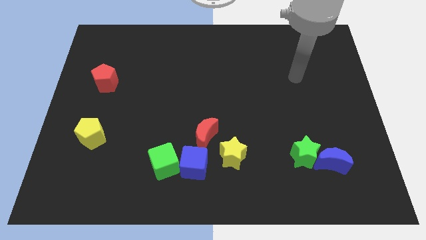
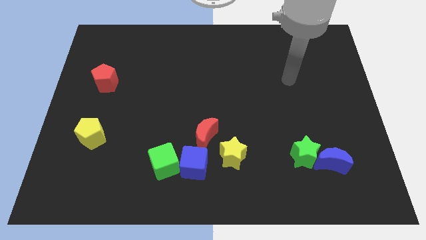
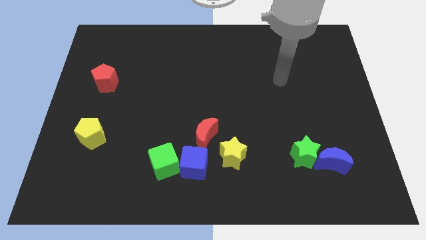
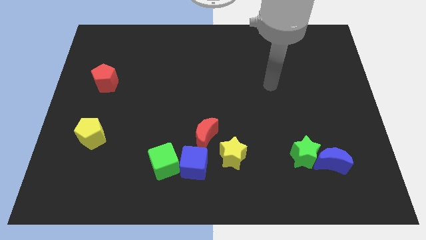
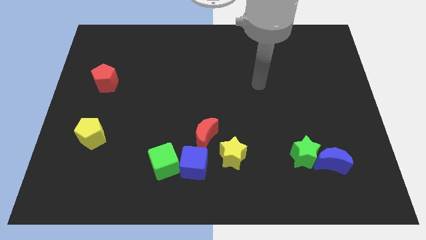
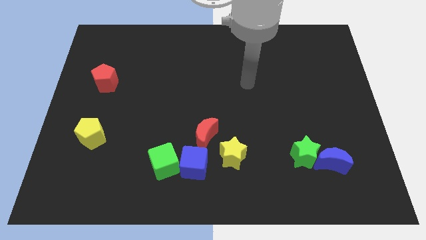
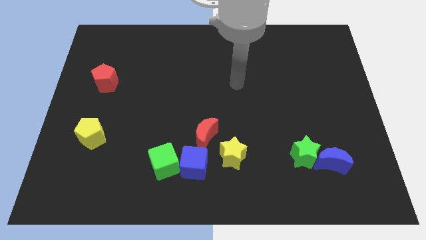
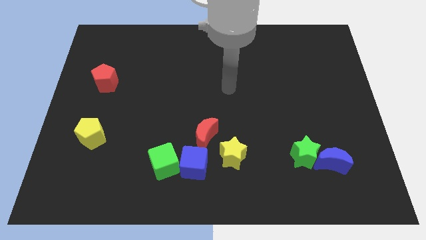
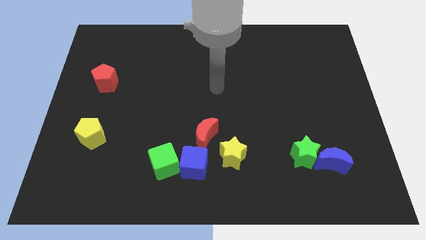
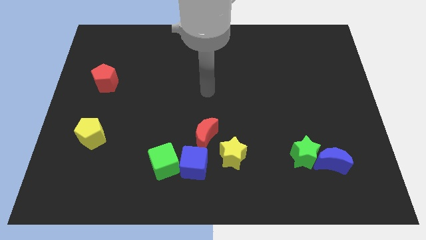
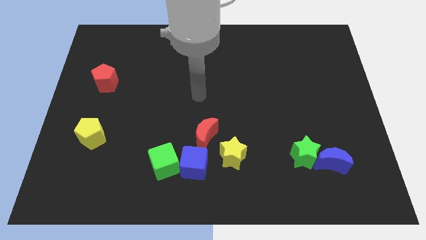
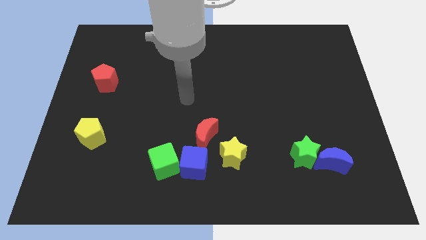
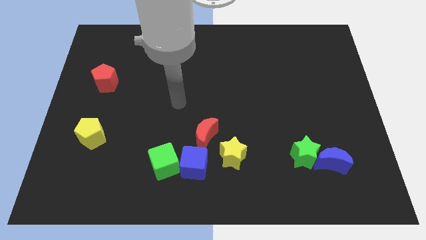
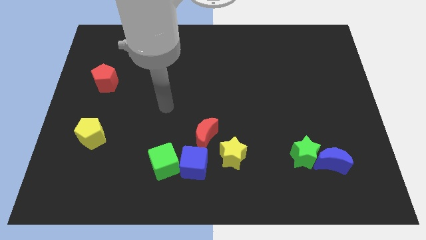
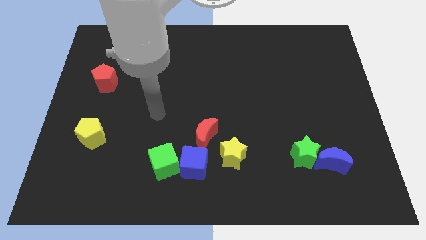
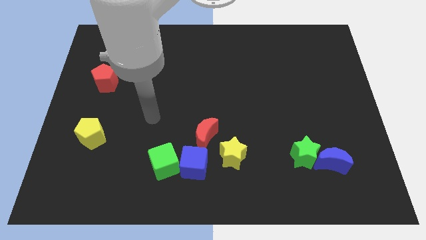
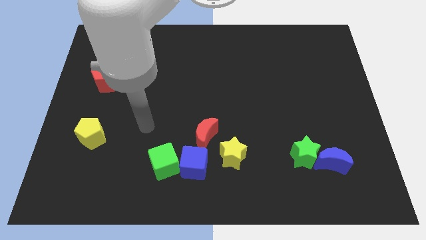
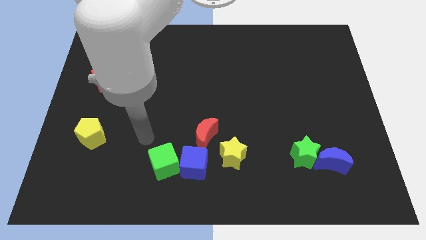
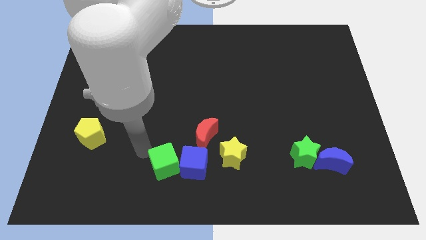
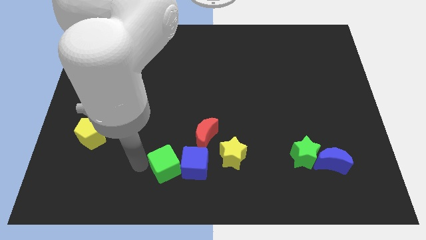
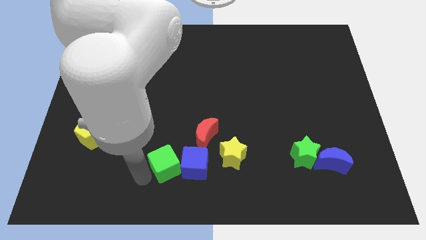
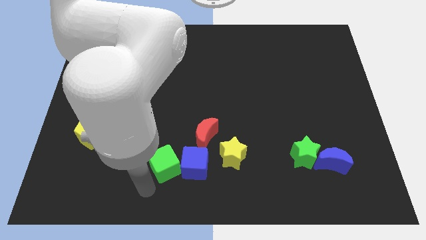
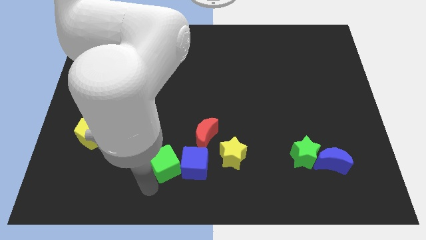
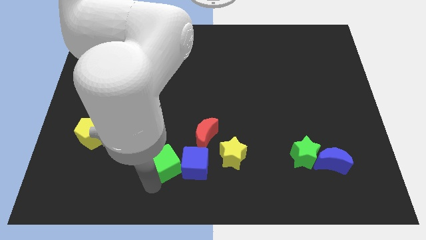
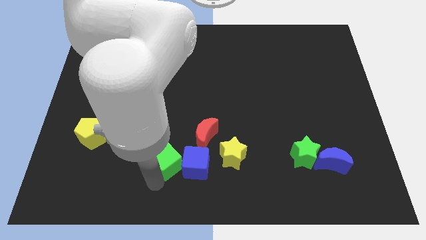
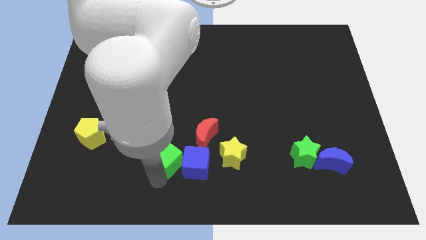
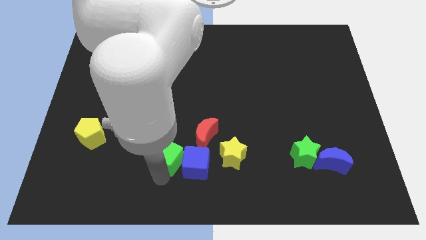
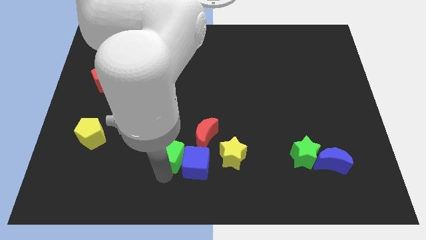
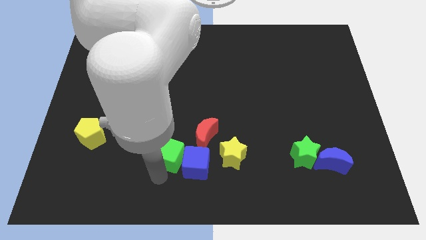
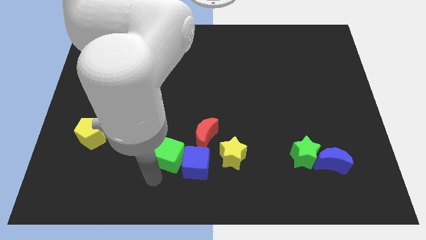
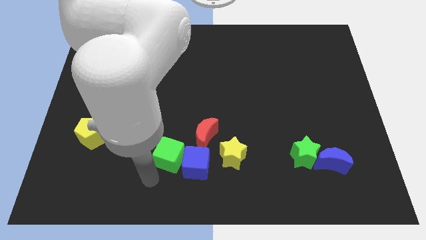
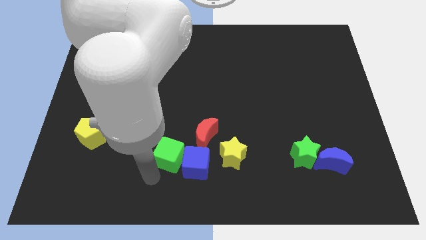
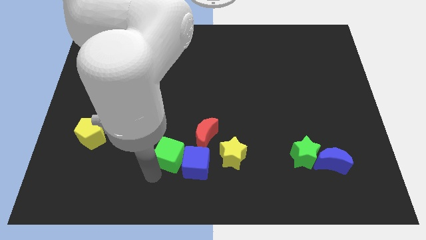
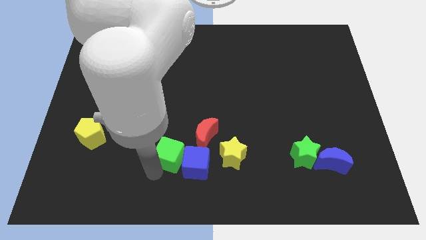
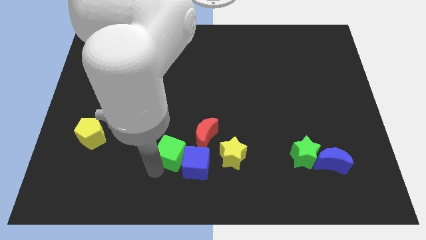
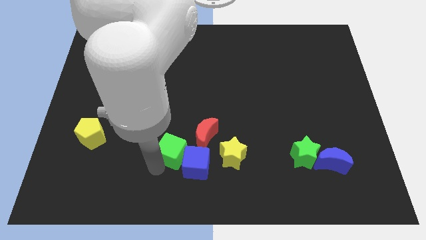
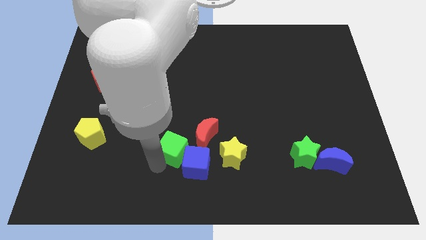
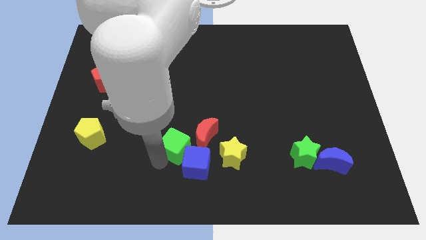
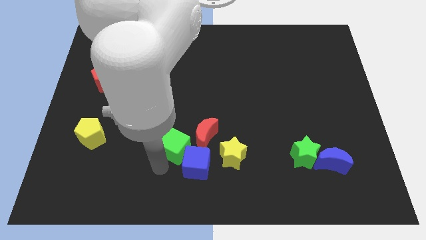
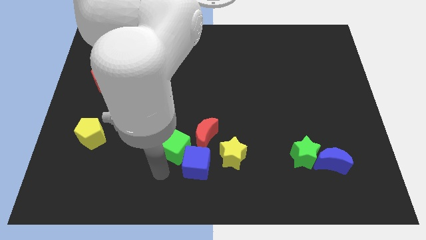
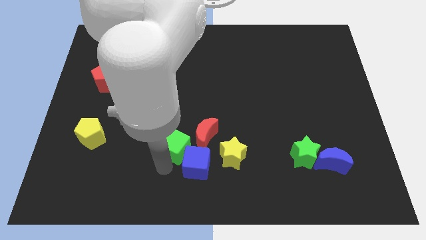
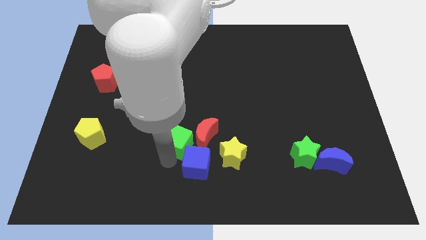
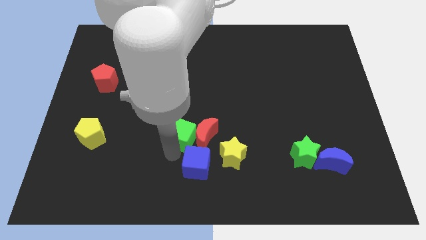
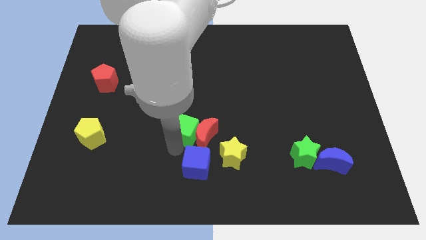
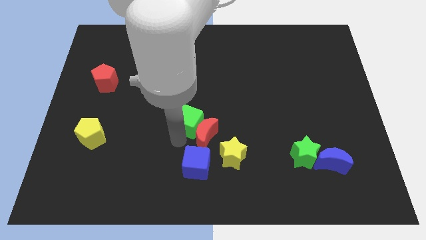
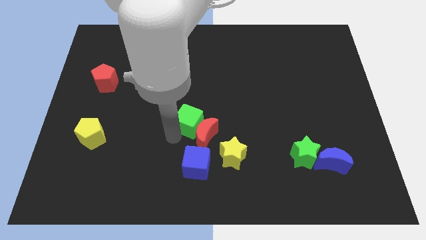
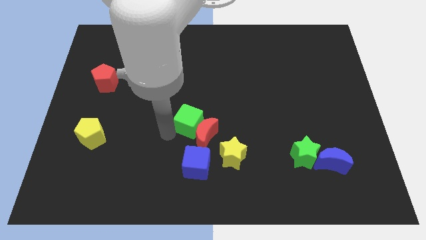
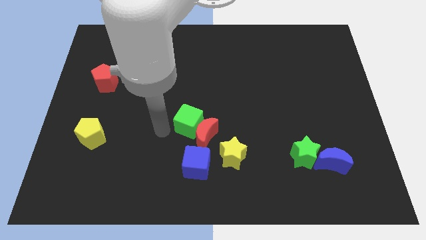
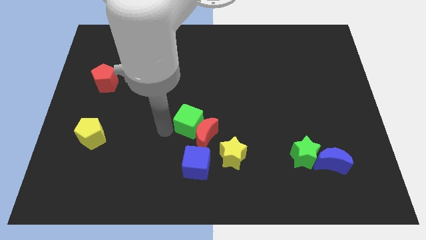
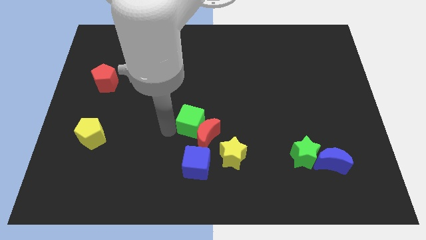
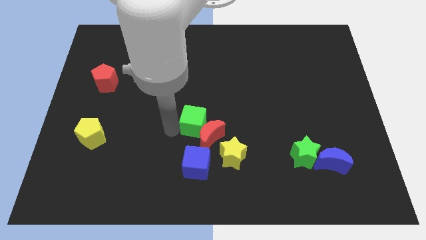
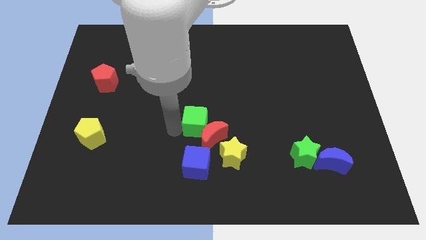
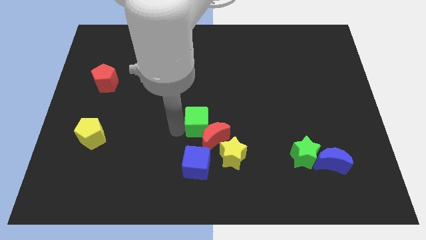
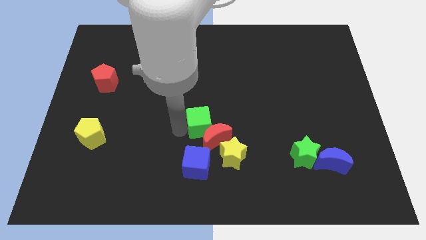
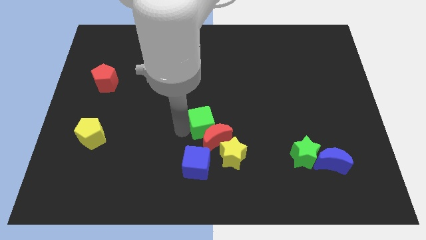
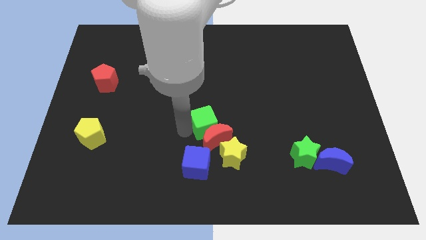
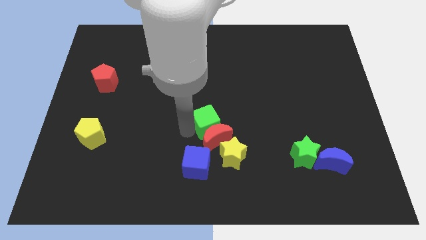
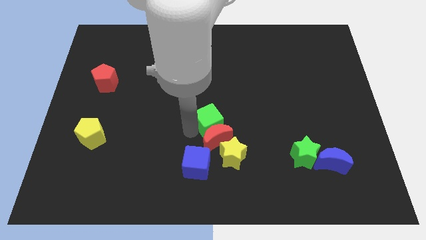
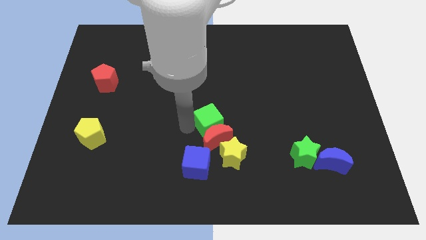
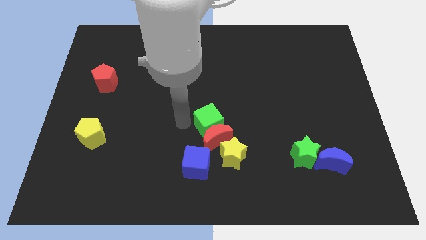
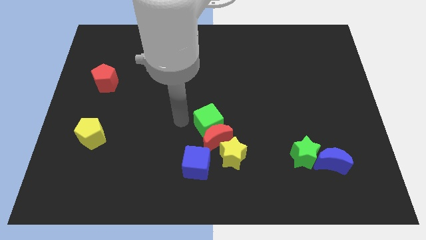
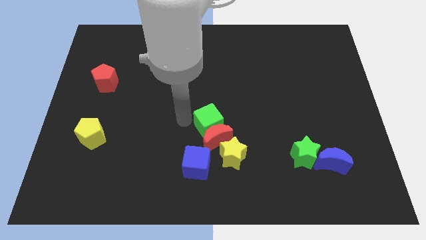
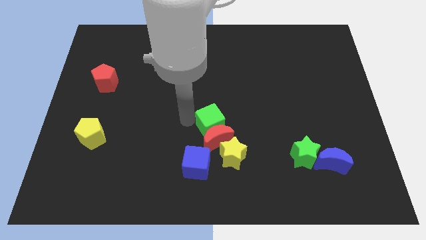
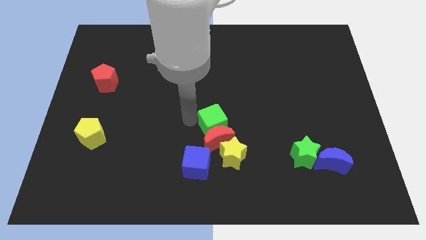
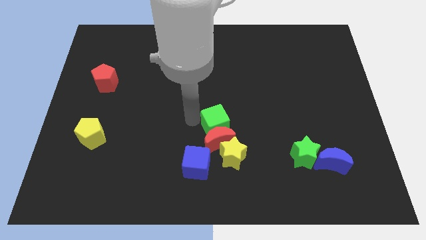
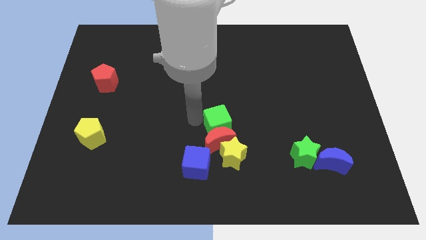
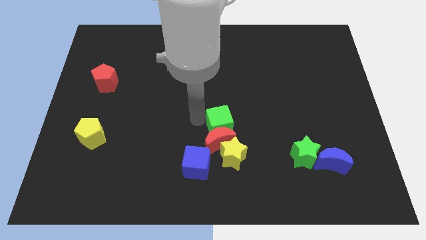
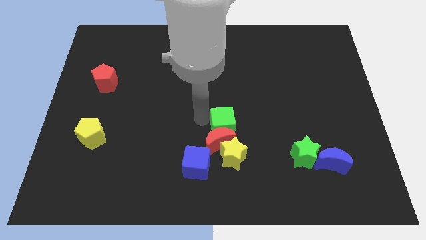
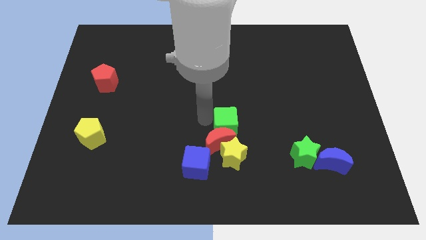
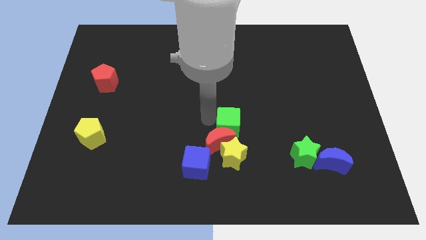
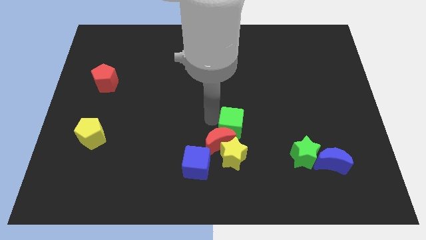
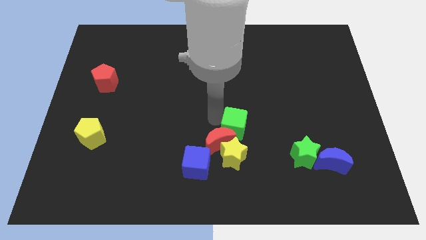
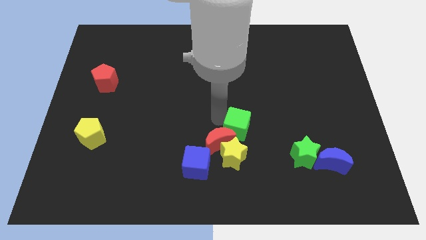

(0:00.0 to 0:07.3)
slide the green cube diagonally up and to the right of the yellow star
